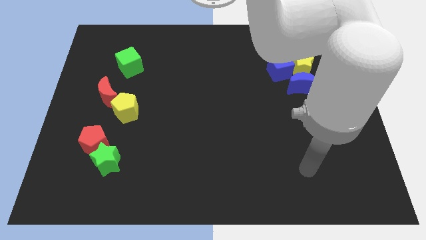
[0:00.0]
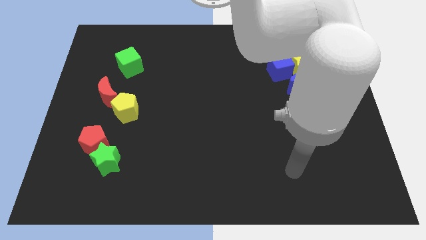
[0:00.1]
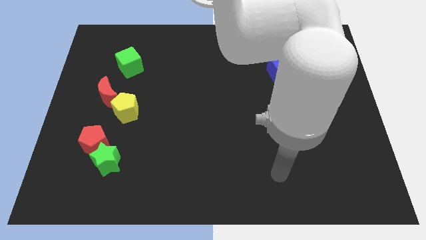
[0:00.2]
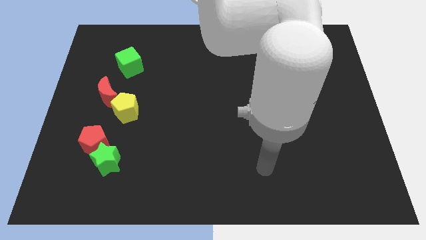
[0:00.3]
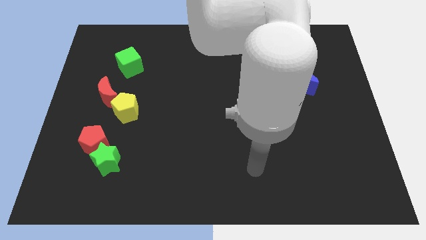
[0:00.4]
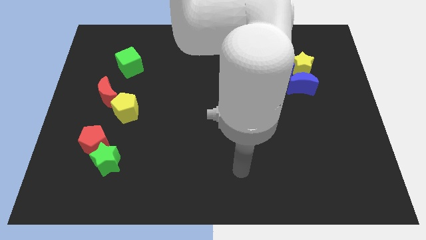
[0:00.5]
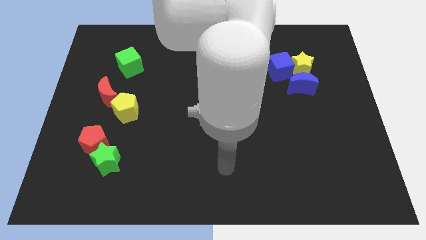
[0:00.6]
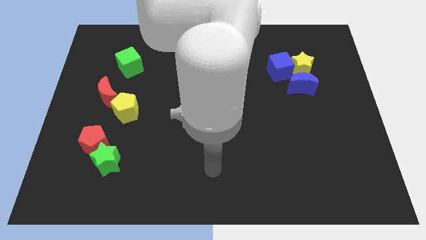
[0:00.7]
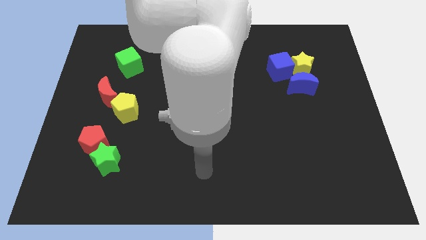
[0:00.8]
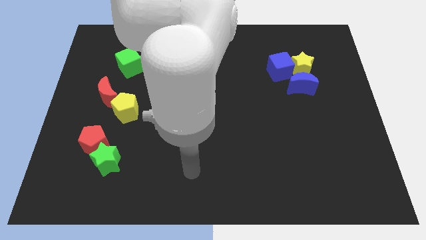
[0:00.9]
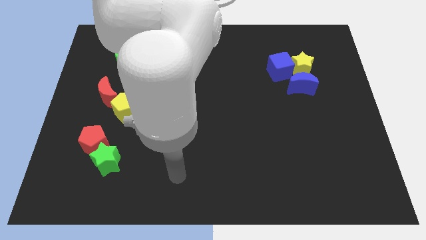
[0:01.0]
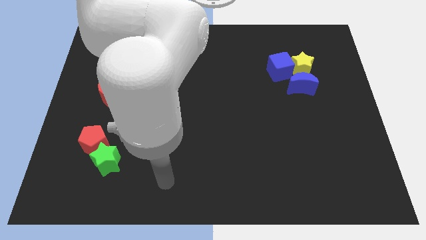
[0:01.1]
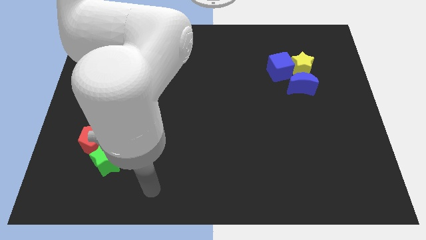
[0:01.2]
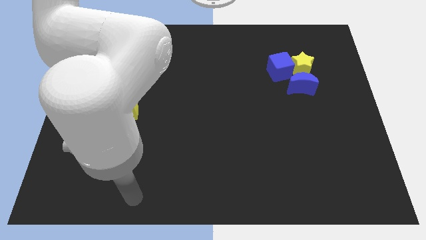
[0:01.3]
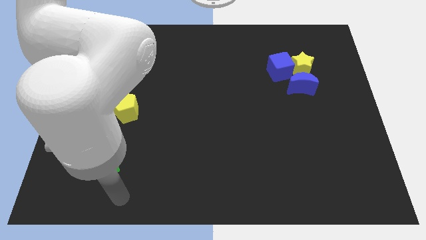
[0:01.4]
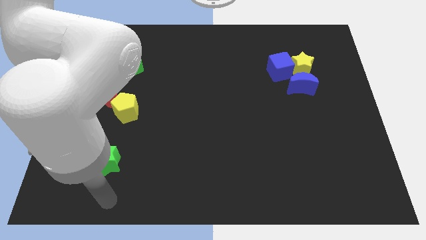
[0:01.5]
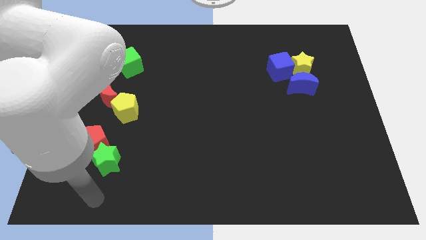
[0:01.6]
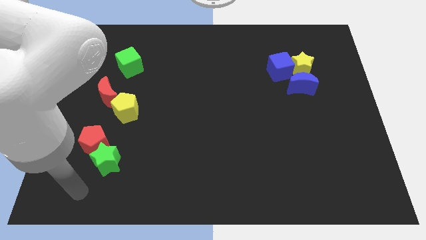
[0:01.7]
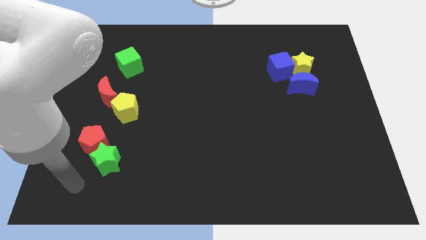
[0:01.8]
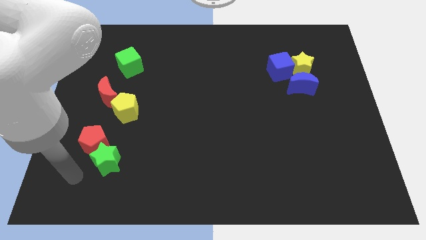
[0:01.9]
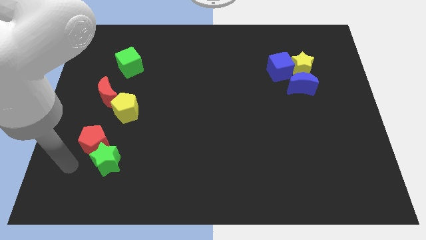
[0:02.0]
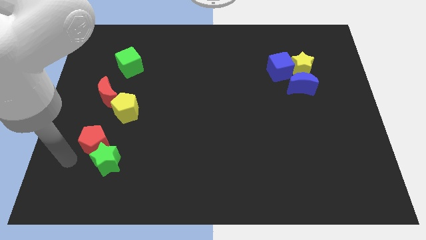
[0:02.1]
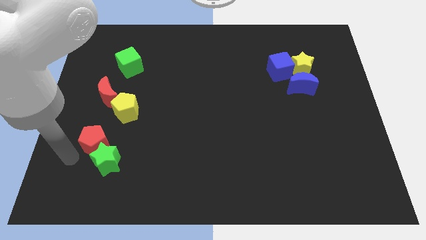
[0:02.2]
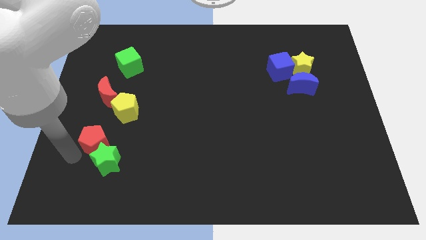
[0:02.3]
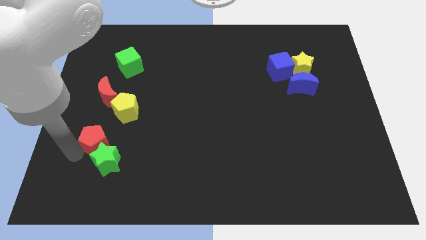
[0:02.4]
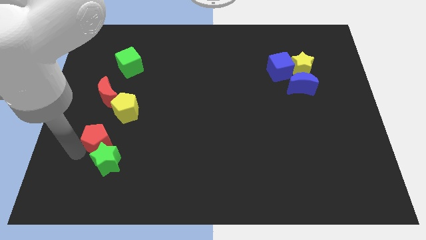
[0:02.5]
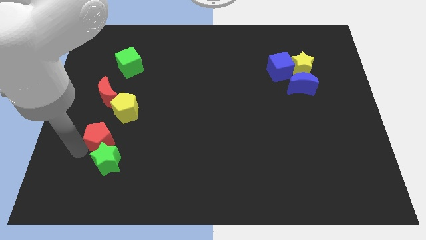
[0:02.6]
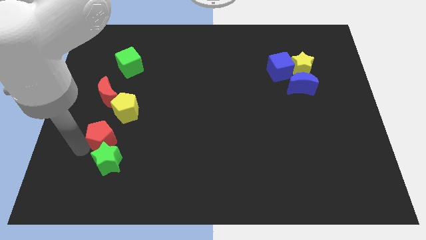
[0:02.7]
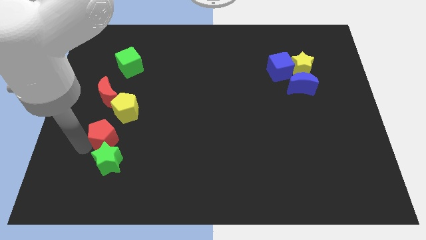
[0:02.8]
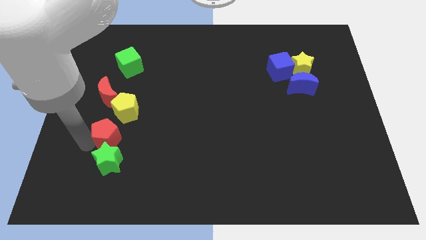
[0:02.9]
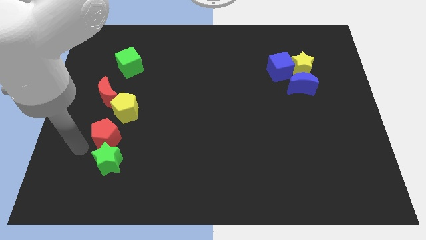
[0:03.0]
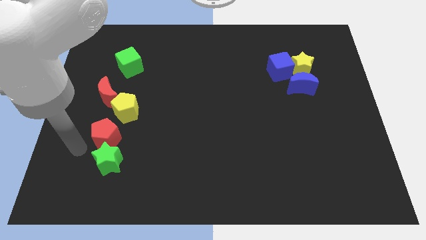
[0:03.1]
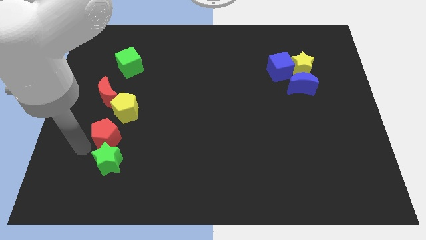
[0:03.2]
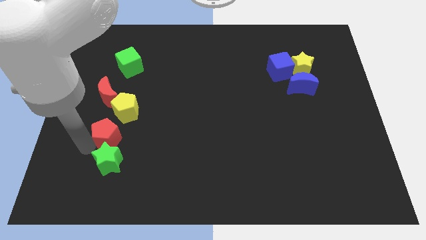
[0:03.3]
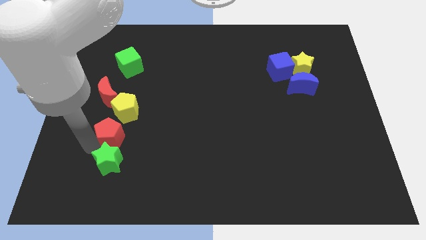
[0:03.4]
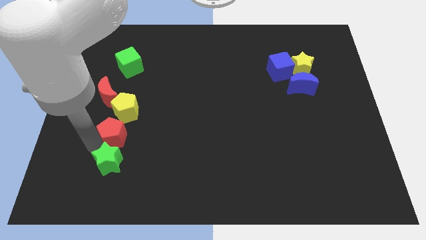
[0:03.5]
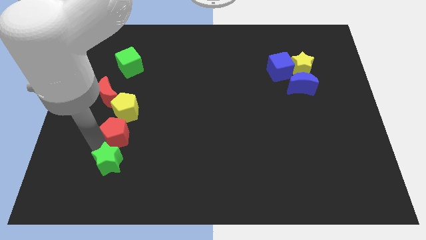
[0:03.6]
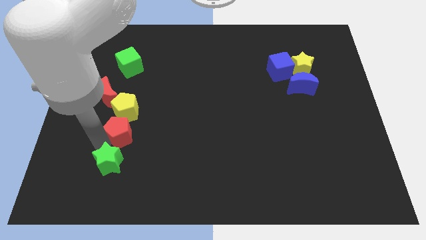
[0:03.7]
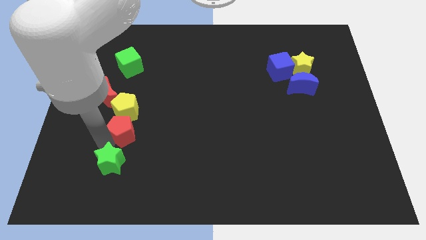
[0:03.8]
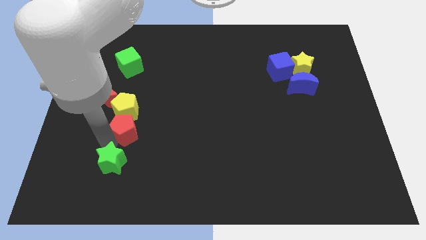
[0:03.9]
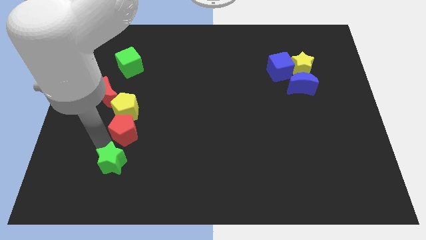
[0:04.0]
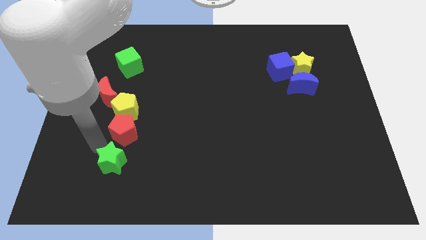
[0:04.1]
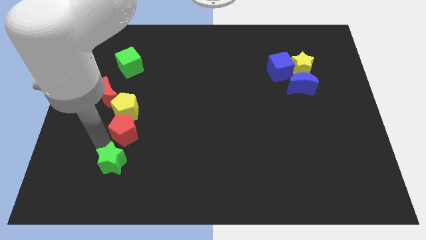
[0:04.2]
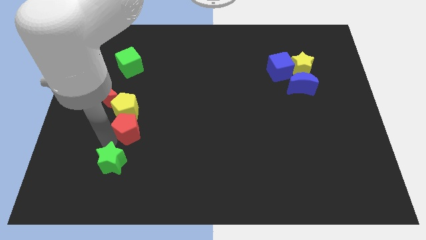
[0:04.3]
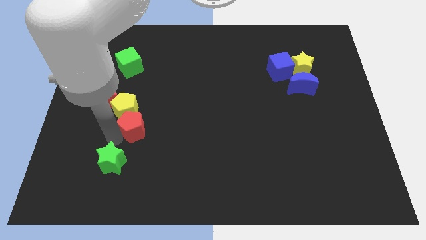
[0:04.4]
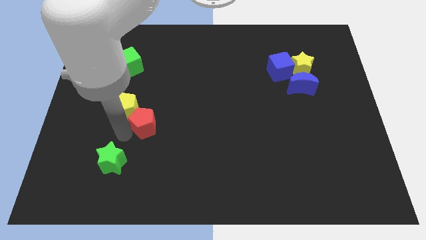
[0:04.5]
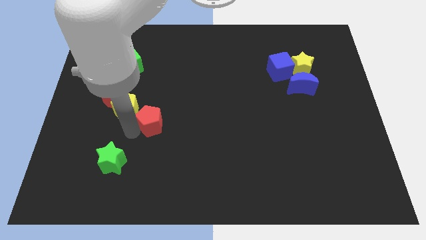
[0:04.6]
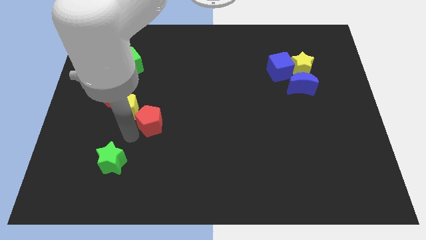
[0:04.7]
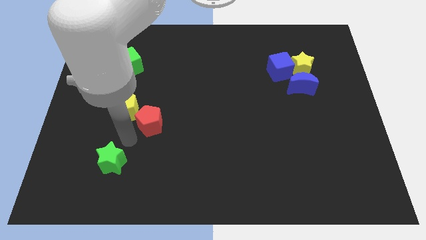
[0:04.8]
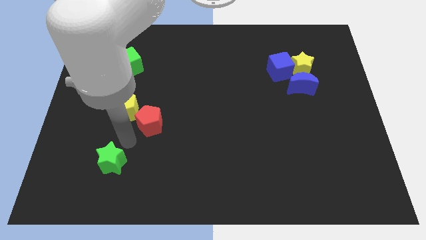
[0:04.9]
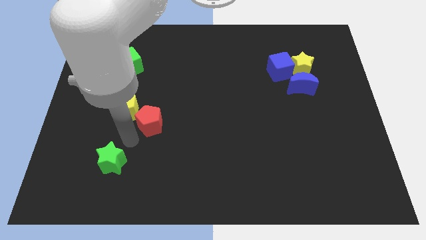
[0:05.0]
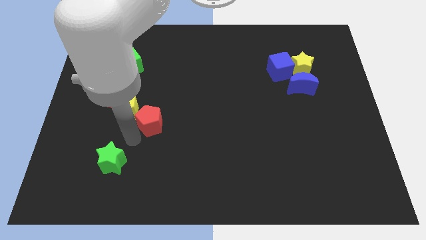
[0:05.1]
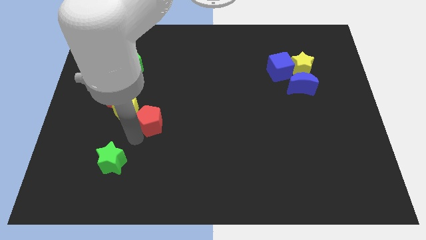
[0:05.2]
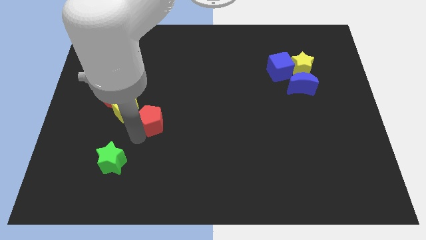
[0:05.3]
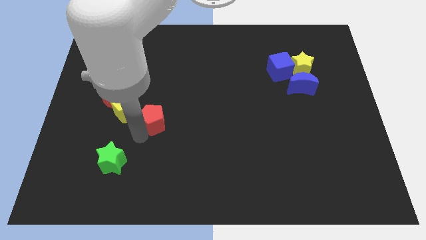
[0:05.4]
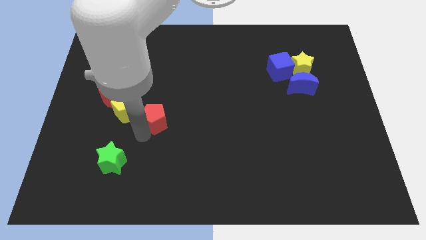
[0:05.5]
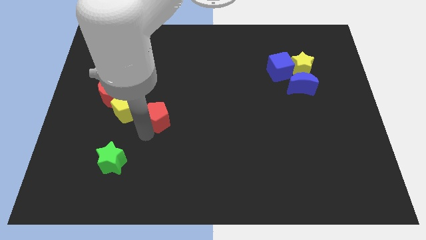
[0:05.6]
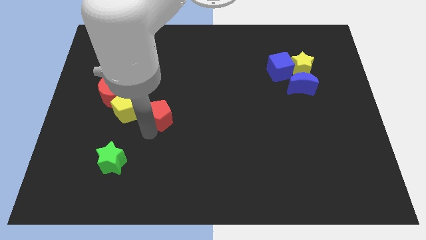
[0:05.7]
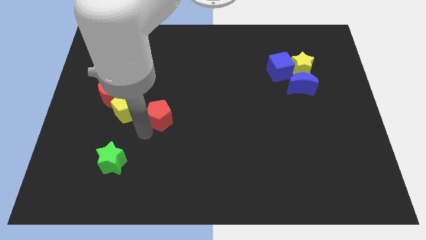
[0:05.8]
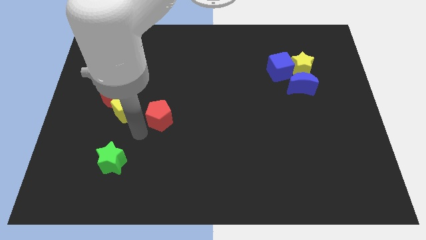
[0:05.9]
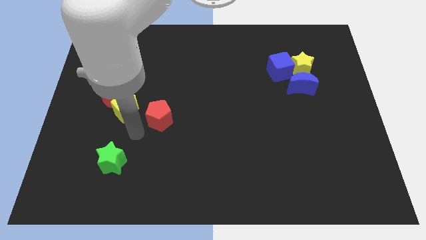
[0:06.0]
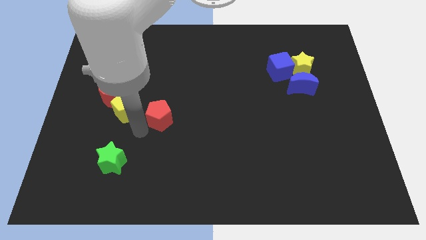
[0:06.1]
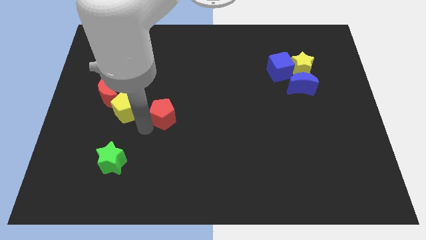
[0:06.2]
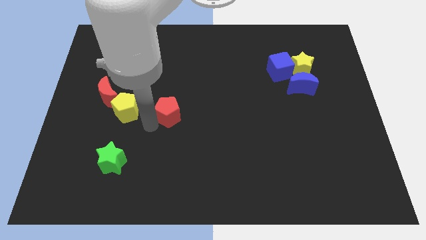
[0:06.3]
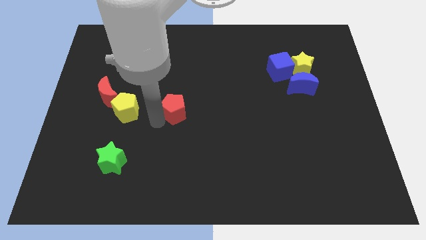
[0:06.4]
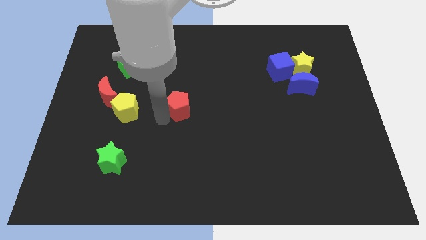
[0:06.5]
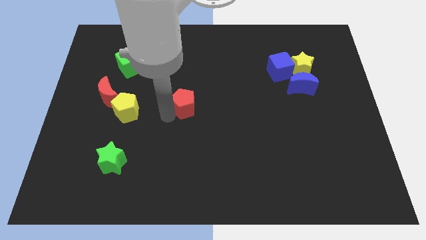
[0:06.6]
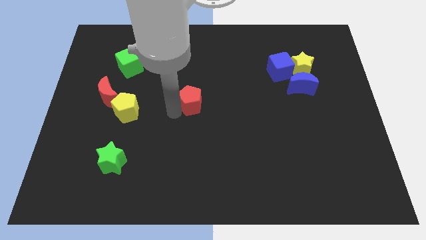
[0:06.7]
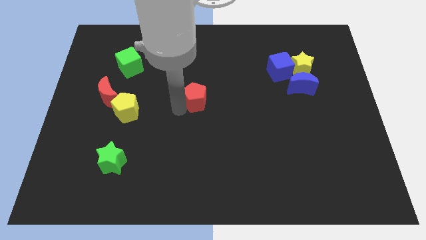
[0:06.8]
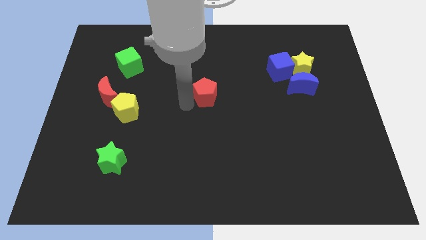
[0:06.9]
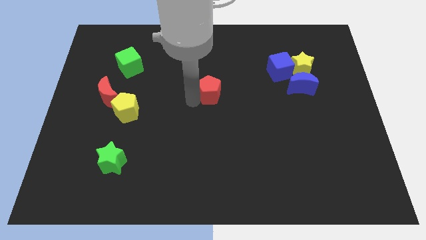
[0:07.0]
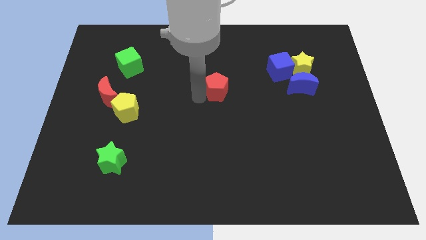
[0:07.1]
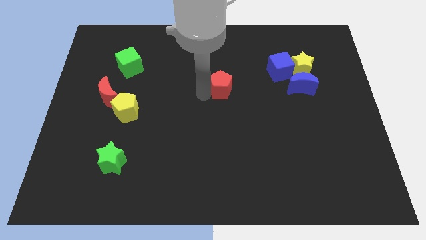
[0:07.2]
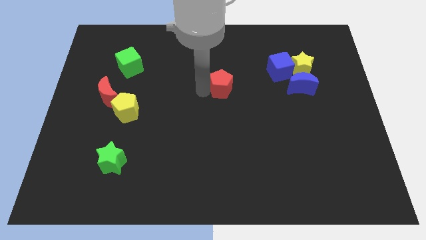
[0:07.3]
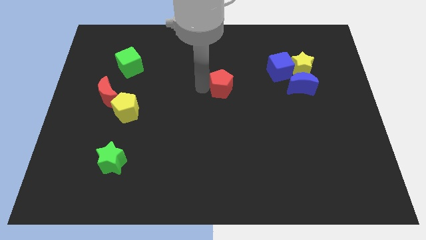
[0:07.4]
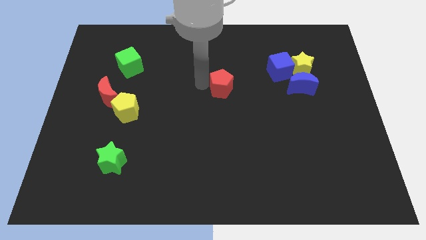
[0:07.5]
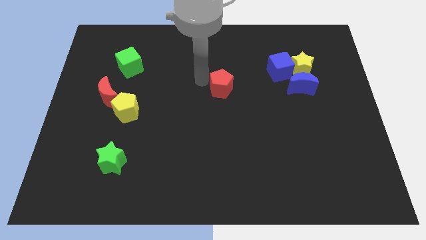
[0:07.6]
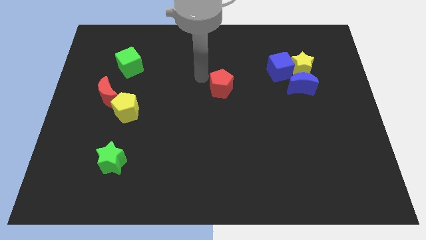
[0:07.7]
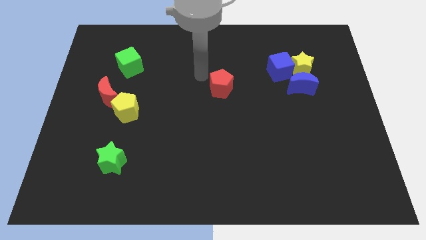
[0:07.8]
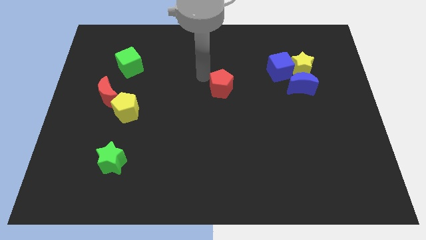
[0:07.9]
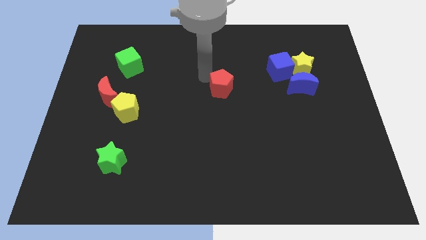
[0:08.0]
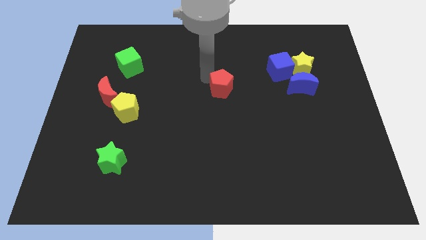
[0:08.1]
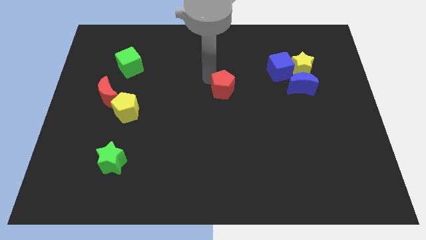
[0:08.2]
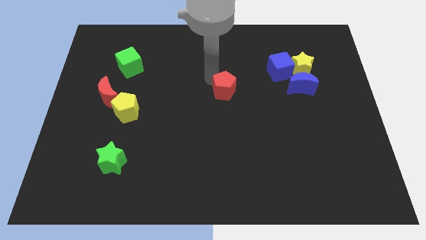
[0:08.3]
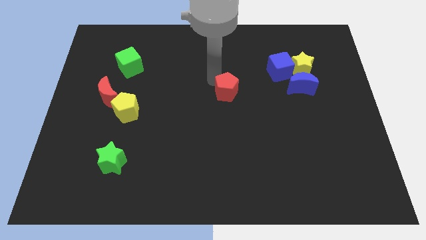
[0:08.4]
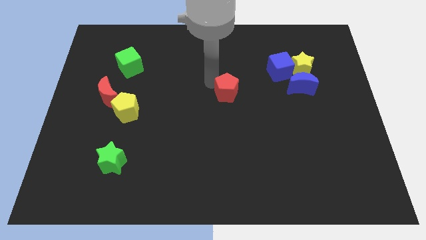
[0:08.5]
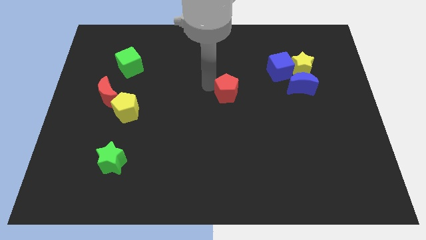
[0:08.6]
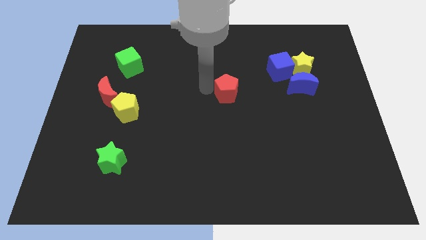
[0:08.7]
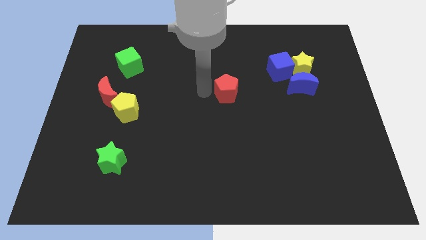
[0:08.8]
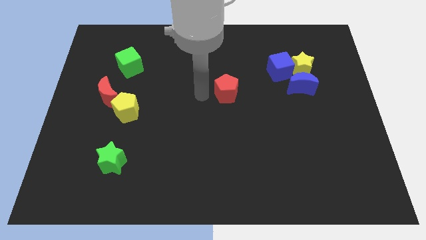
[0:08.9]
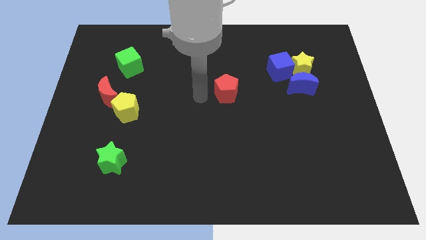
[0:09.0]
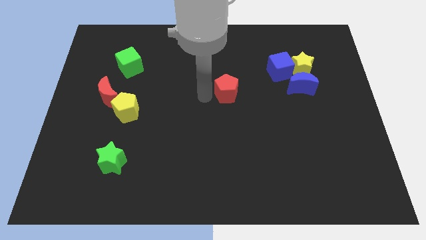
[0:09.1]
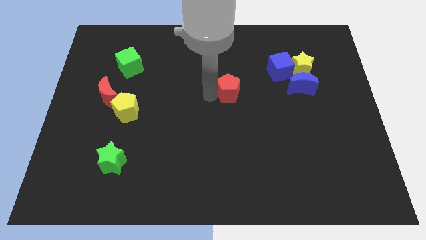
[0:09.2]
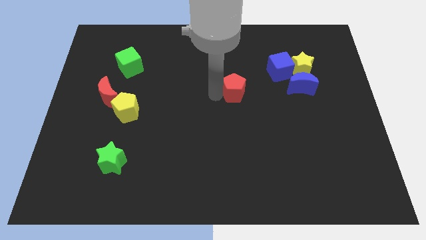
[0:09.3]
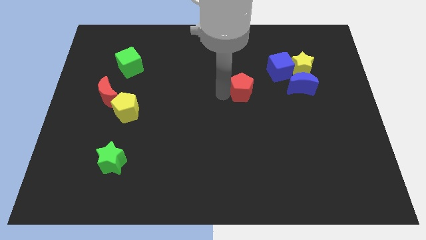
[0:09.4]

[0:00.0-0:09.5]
push the red pentagon to the bottom left of the blue cube
